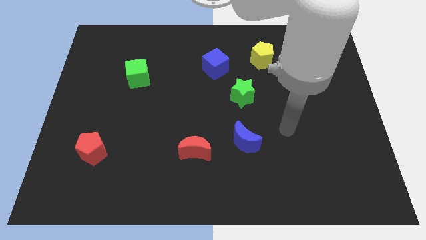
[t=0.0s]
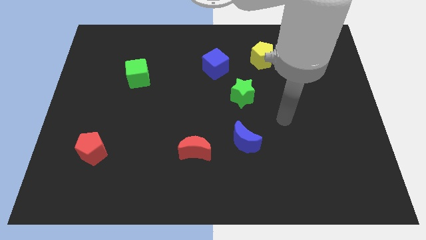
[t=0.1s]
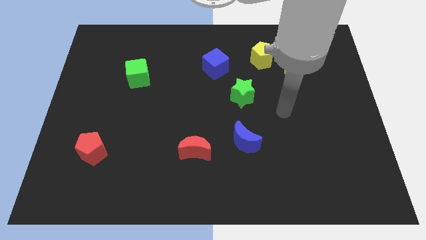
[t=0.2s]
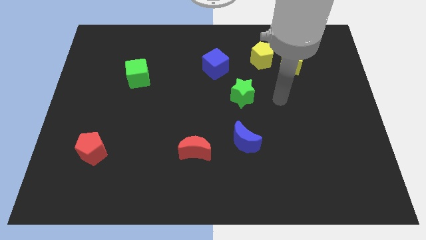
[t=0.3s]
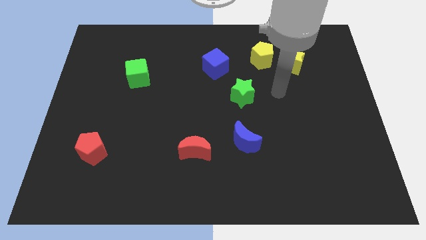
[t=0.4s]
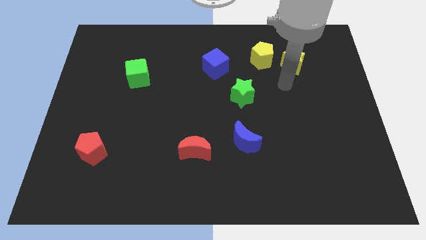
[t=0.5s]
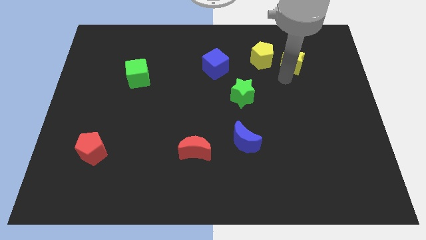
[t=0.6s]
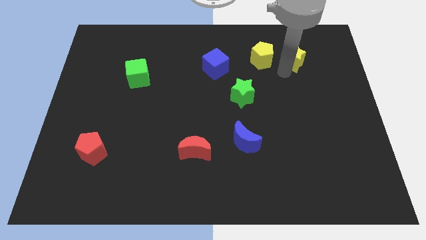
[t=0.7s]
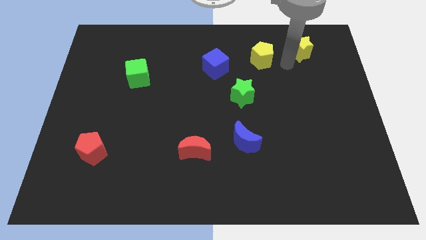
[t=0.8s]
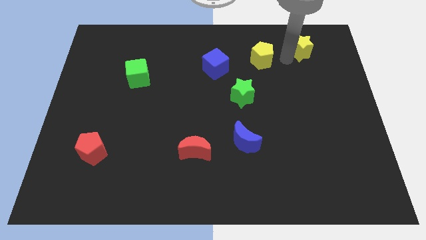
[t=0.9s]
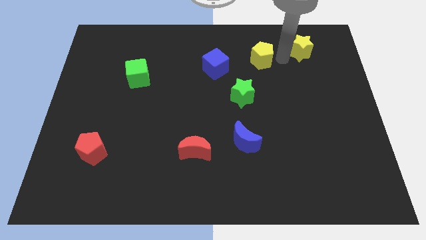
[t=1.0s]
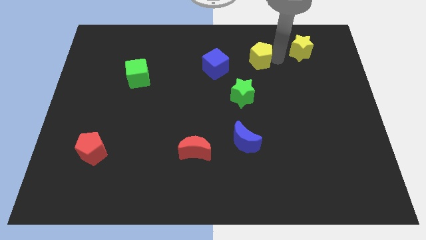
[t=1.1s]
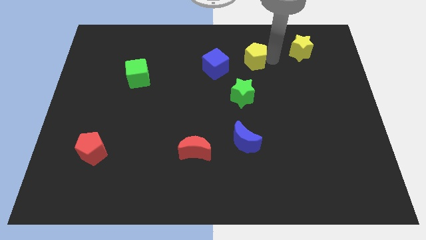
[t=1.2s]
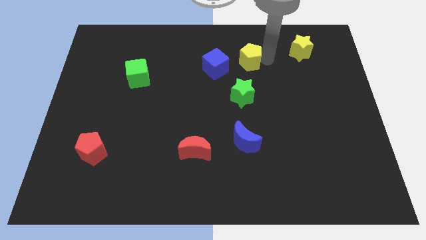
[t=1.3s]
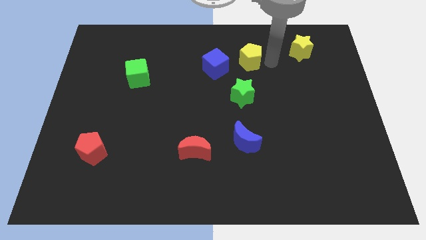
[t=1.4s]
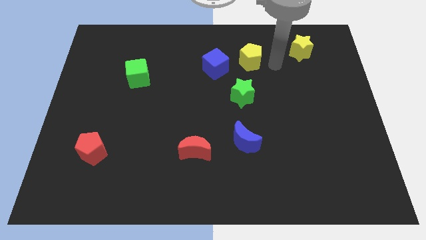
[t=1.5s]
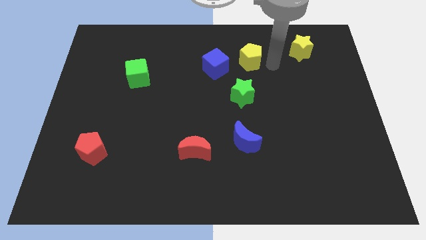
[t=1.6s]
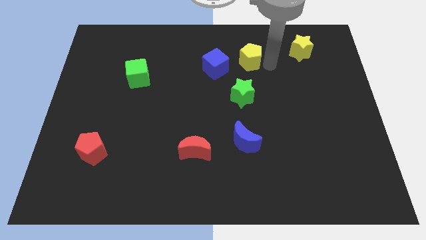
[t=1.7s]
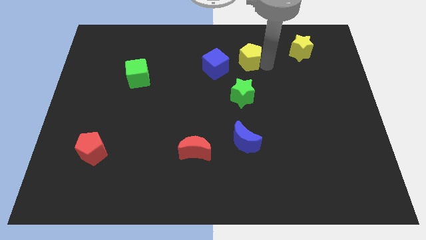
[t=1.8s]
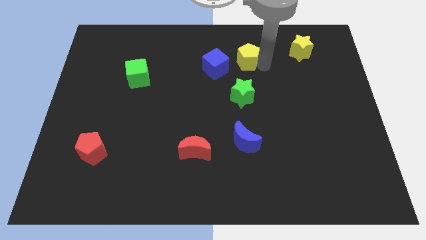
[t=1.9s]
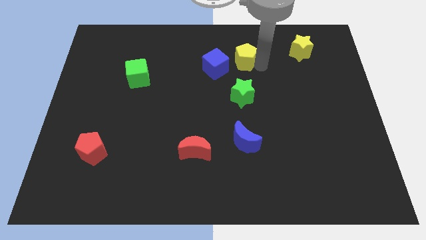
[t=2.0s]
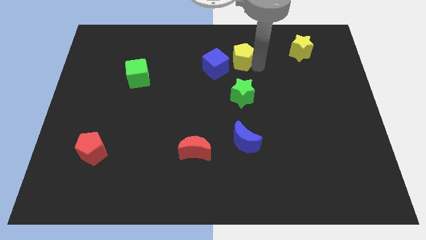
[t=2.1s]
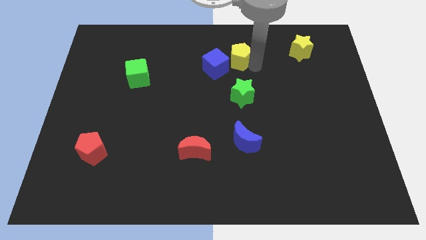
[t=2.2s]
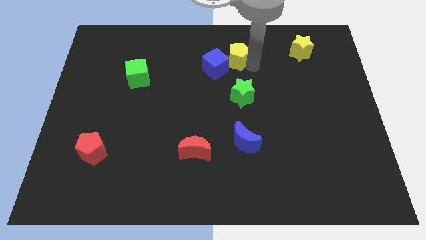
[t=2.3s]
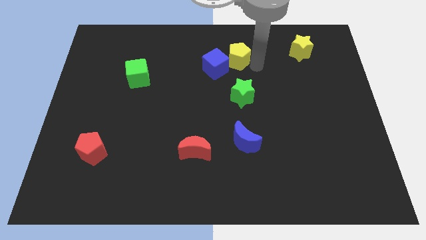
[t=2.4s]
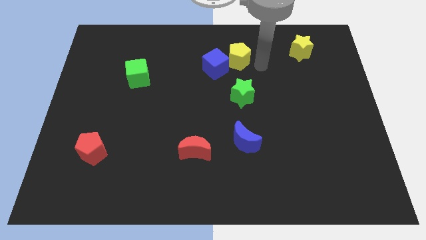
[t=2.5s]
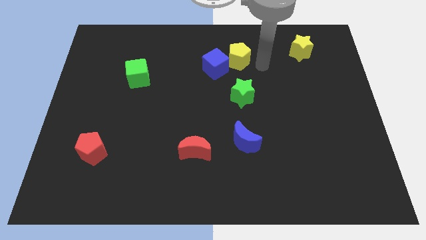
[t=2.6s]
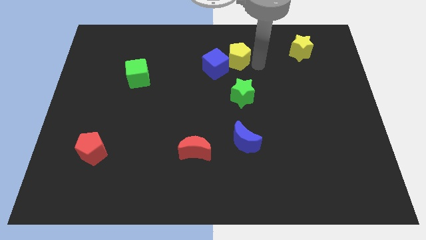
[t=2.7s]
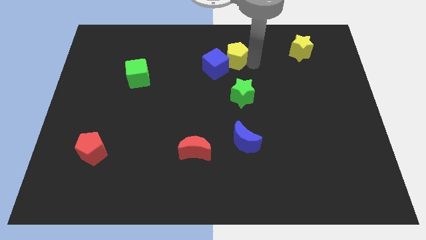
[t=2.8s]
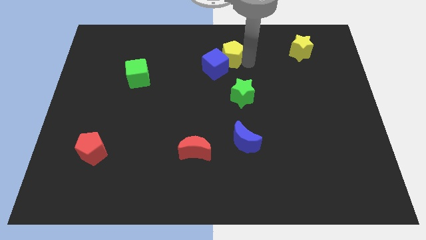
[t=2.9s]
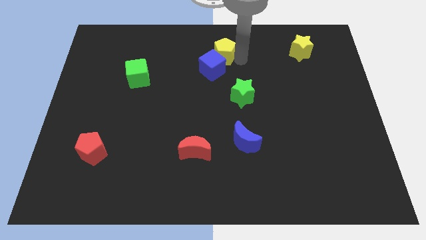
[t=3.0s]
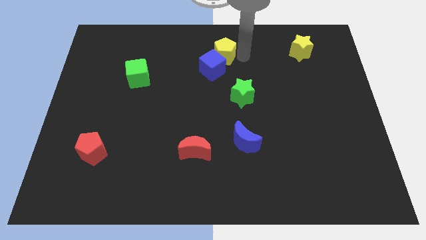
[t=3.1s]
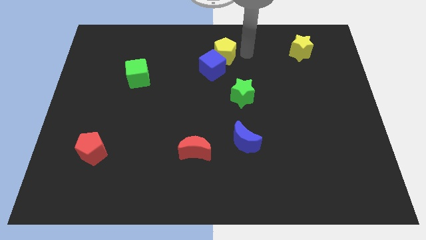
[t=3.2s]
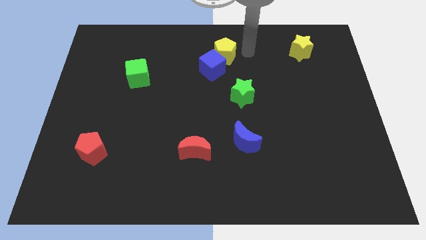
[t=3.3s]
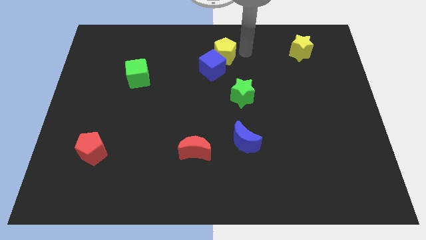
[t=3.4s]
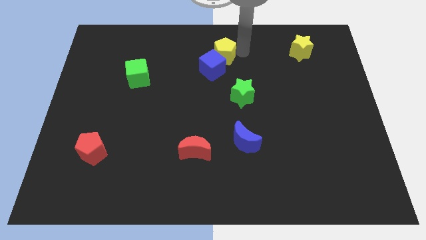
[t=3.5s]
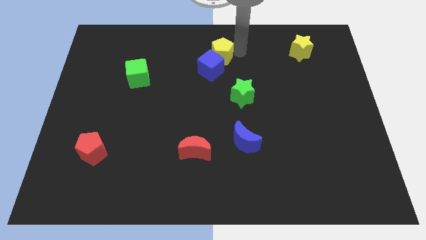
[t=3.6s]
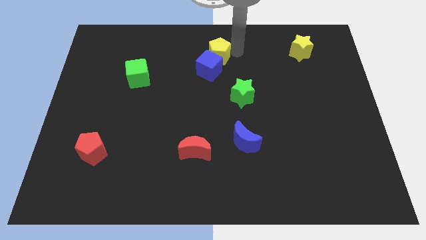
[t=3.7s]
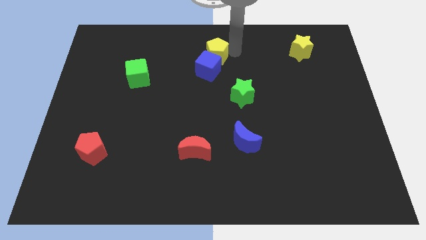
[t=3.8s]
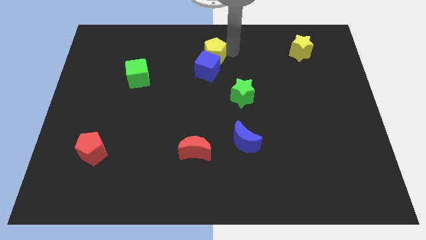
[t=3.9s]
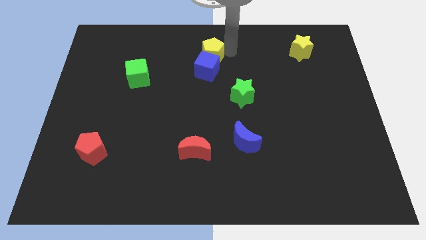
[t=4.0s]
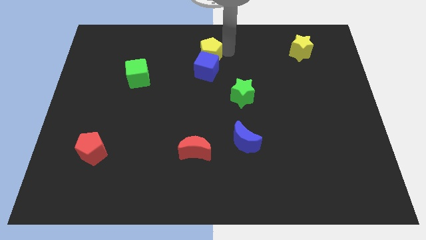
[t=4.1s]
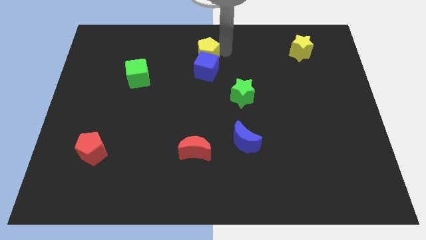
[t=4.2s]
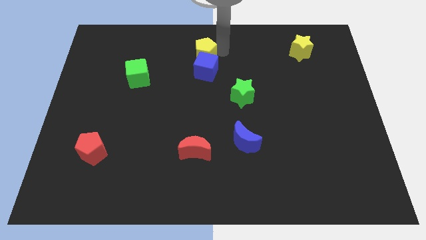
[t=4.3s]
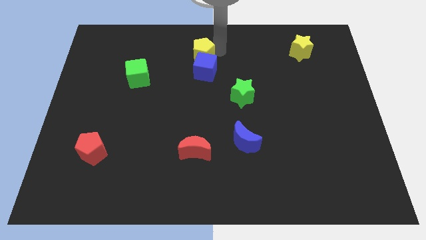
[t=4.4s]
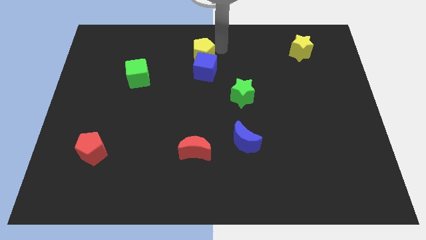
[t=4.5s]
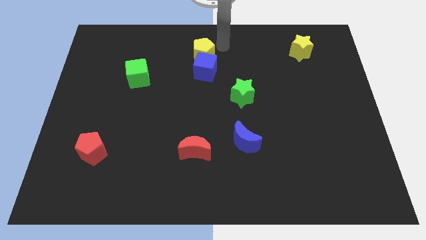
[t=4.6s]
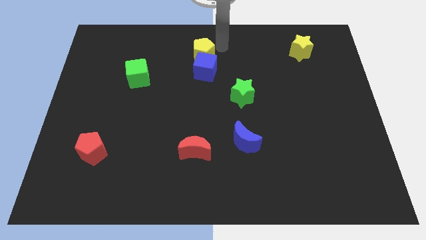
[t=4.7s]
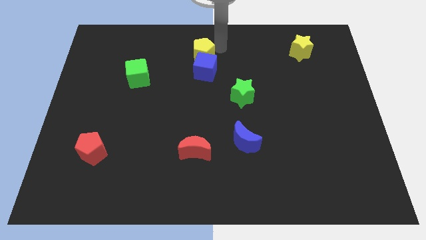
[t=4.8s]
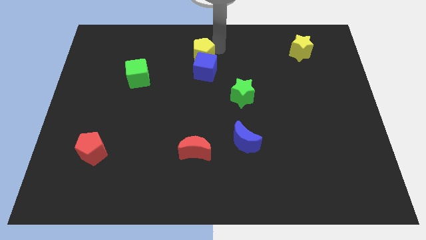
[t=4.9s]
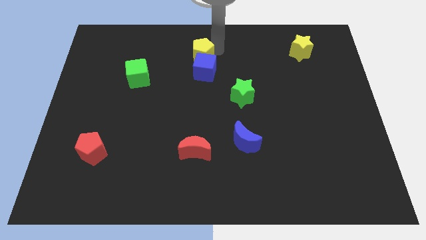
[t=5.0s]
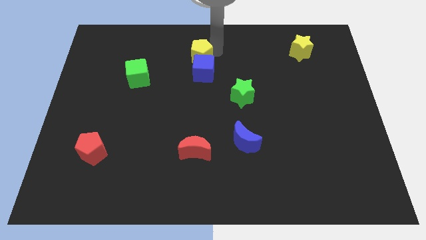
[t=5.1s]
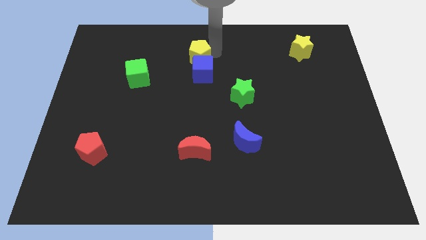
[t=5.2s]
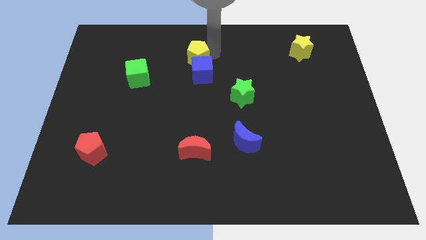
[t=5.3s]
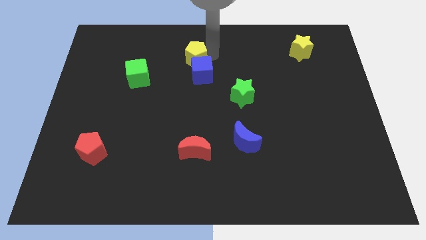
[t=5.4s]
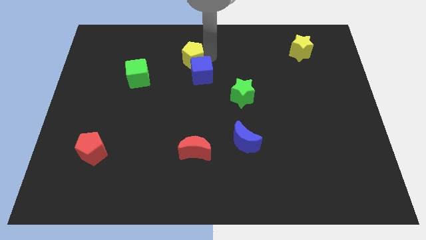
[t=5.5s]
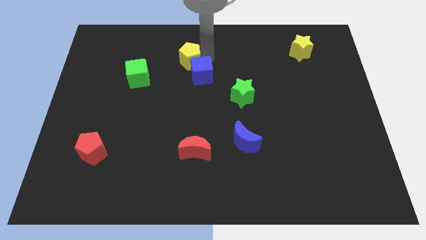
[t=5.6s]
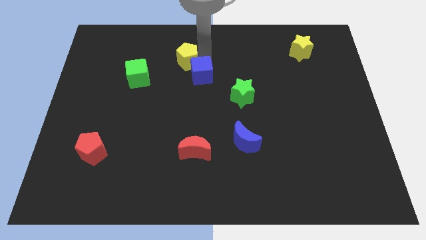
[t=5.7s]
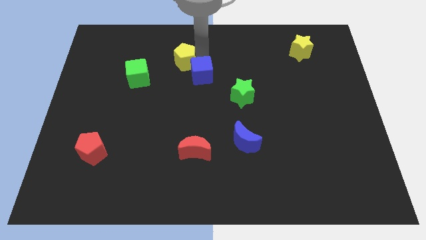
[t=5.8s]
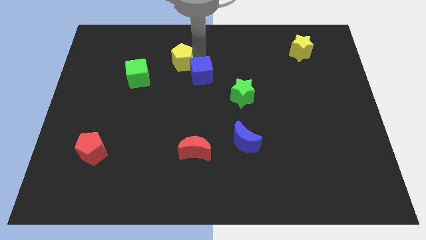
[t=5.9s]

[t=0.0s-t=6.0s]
push the yellow pentagon to the top right of the green cube

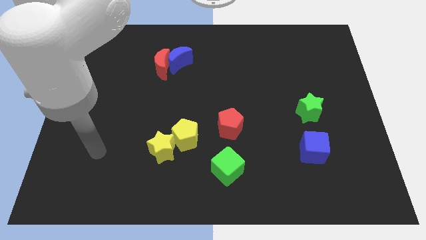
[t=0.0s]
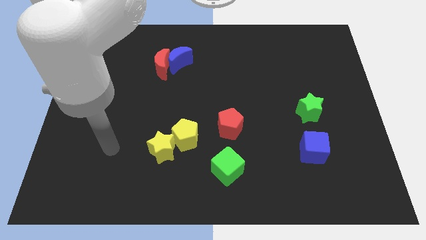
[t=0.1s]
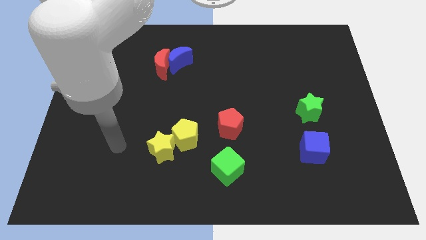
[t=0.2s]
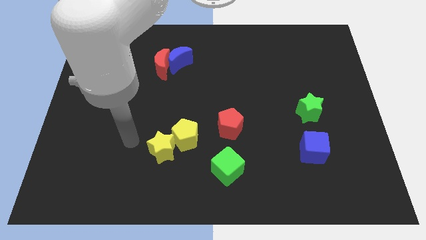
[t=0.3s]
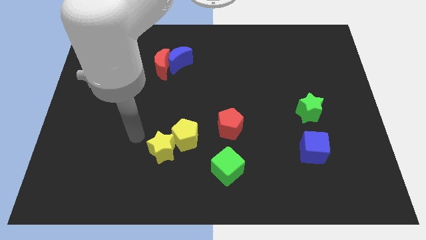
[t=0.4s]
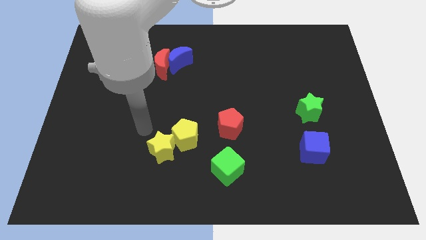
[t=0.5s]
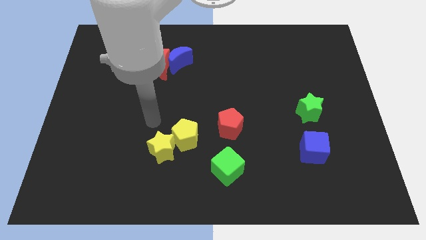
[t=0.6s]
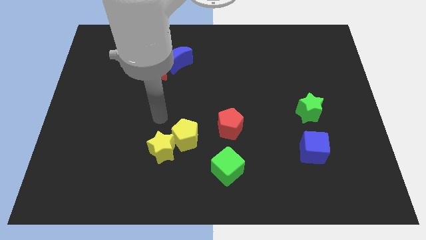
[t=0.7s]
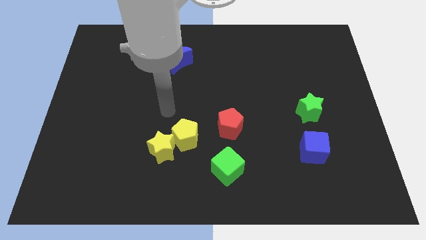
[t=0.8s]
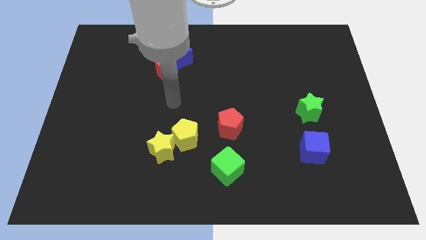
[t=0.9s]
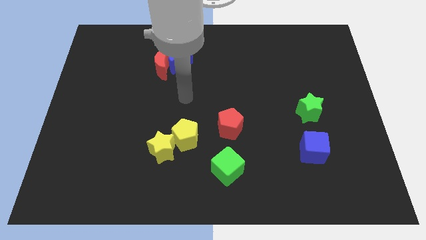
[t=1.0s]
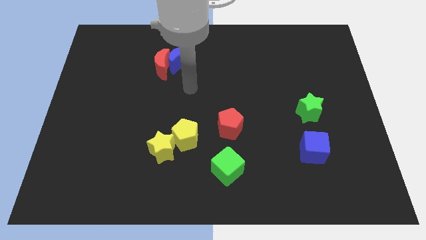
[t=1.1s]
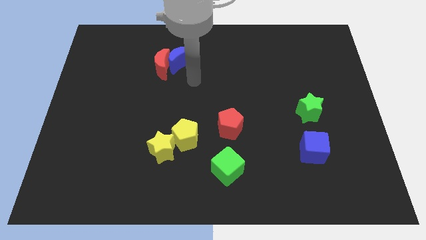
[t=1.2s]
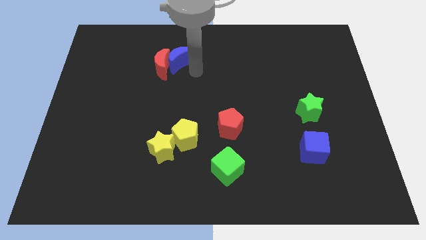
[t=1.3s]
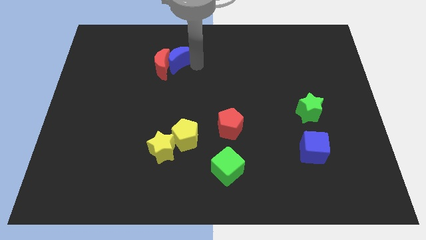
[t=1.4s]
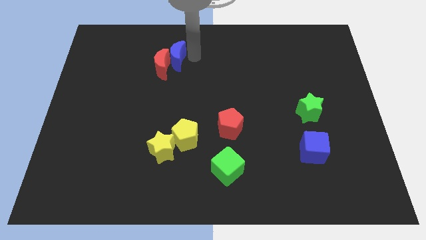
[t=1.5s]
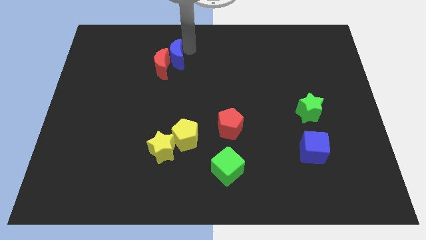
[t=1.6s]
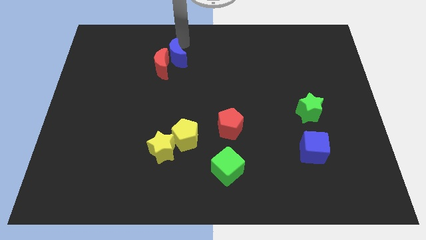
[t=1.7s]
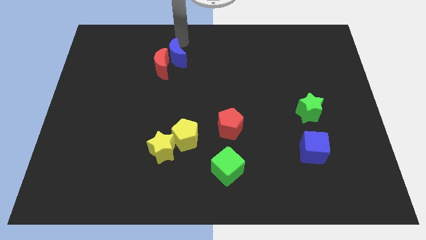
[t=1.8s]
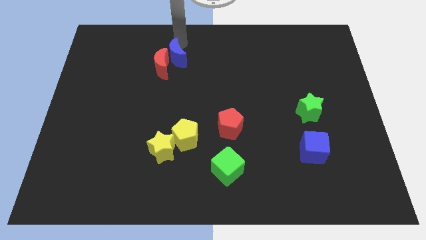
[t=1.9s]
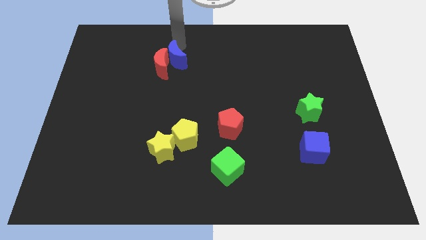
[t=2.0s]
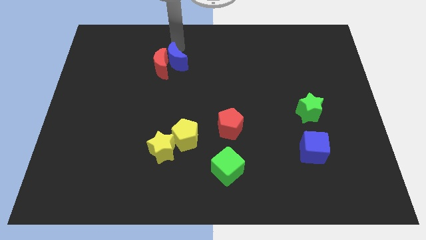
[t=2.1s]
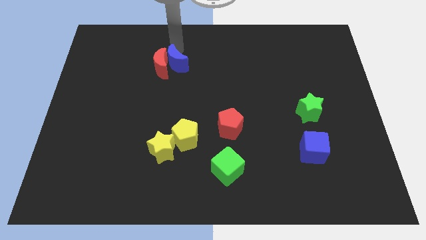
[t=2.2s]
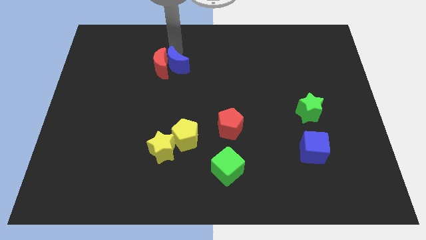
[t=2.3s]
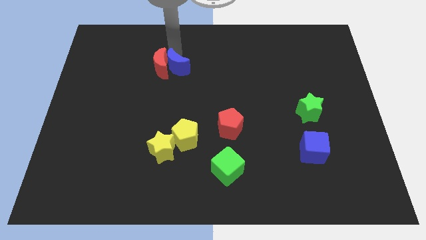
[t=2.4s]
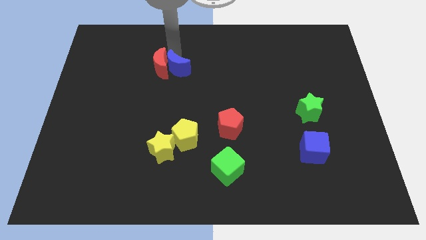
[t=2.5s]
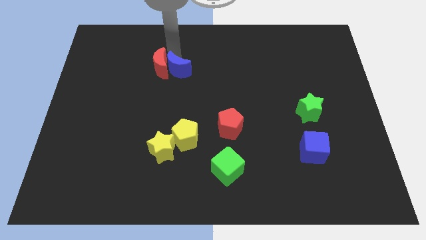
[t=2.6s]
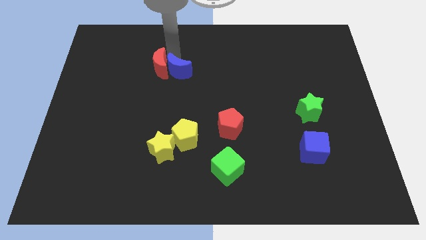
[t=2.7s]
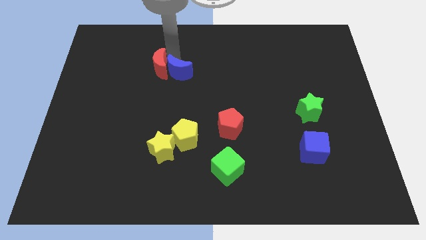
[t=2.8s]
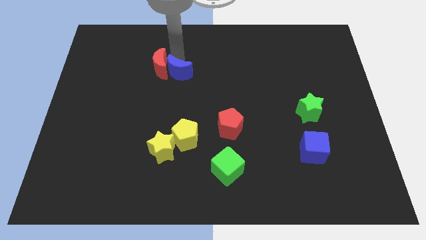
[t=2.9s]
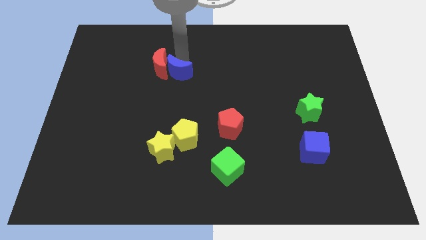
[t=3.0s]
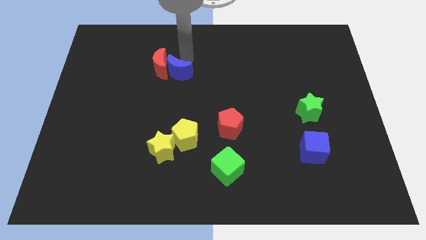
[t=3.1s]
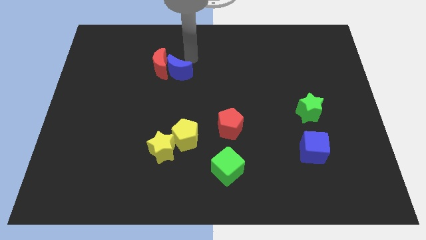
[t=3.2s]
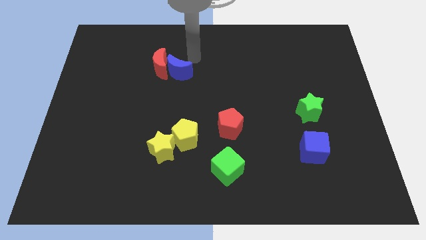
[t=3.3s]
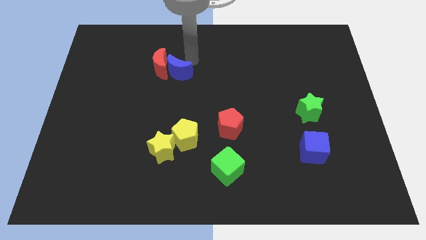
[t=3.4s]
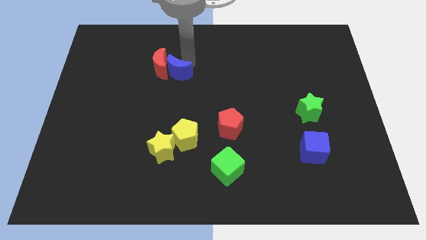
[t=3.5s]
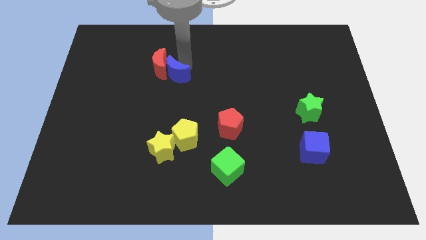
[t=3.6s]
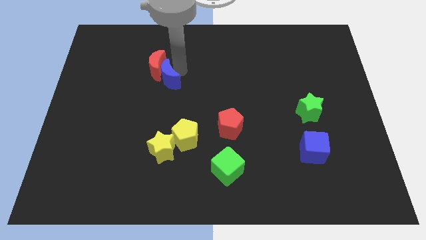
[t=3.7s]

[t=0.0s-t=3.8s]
push the blue moon to the bottom side of the red moon
